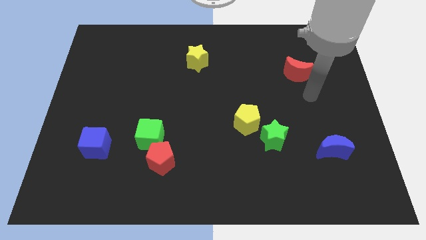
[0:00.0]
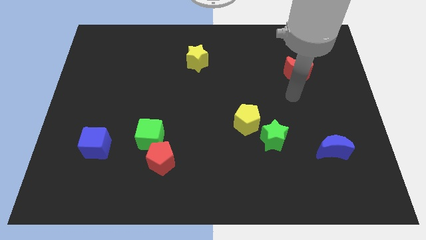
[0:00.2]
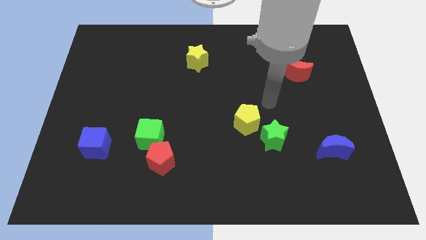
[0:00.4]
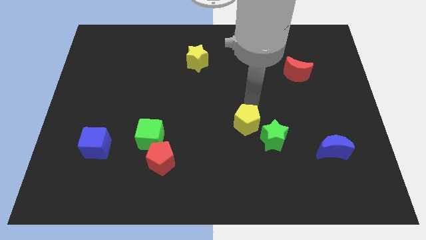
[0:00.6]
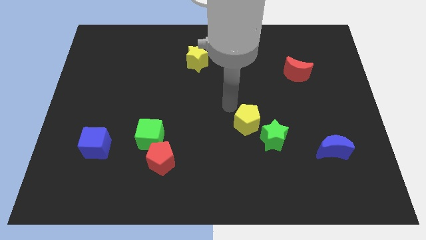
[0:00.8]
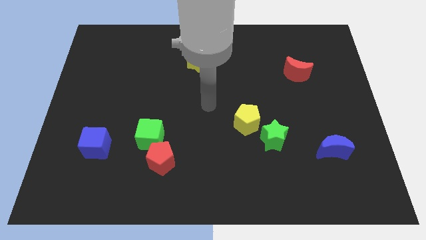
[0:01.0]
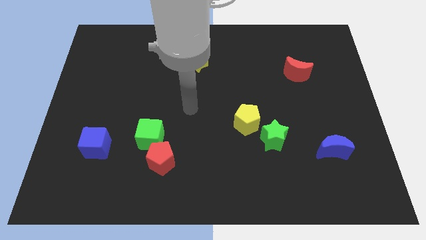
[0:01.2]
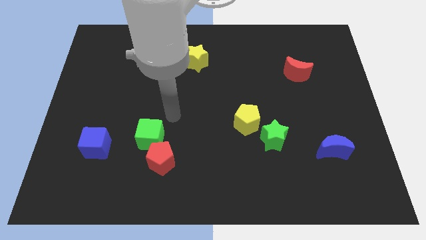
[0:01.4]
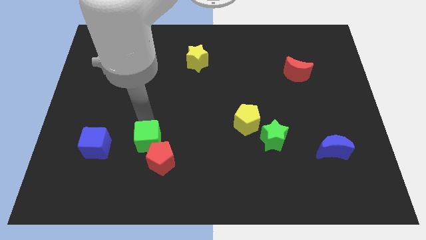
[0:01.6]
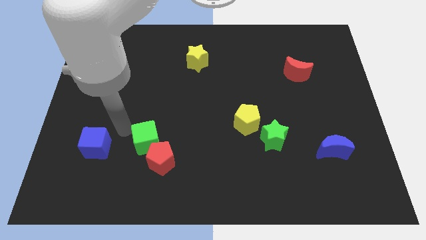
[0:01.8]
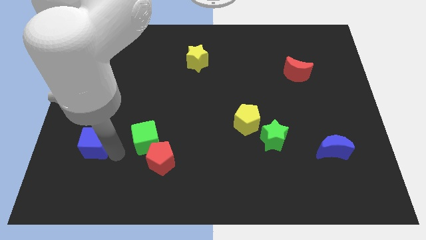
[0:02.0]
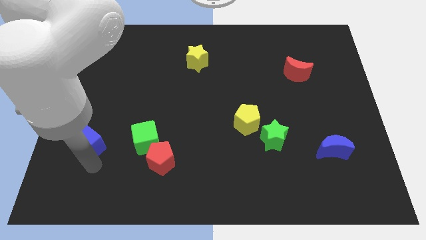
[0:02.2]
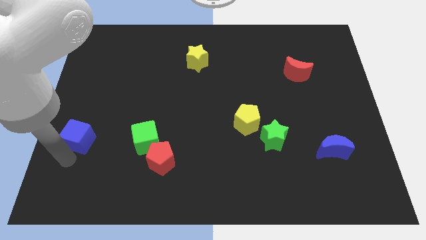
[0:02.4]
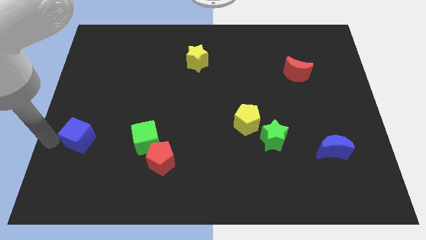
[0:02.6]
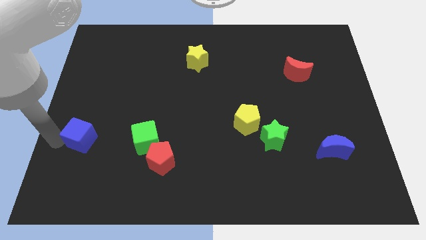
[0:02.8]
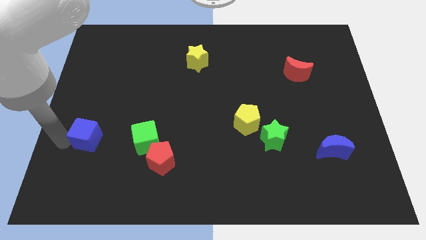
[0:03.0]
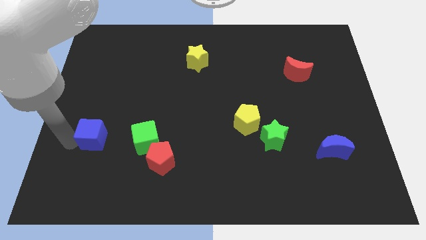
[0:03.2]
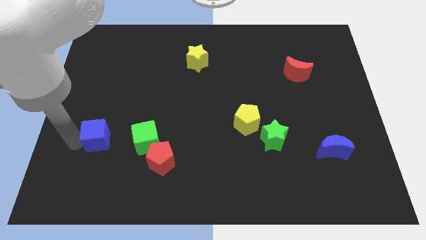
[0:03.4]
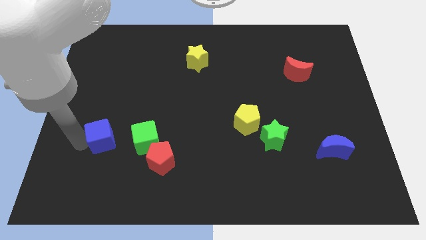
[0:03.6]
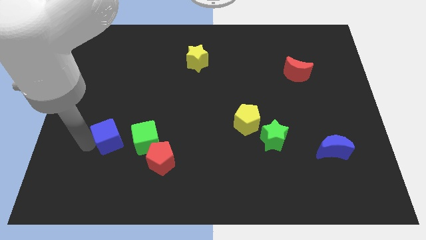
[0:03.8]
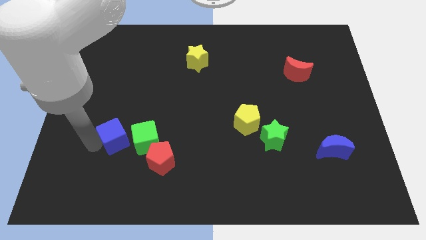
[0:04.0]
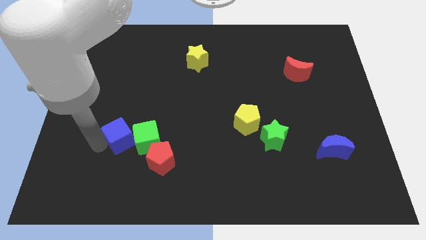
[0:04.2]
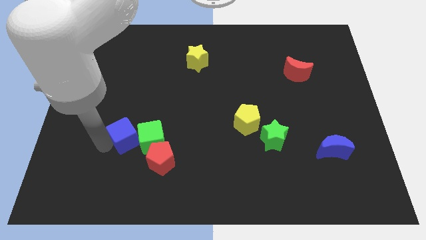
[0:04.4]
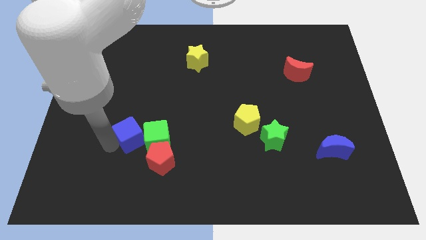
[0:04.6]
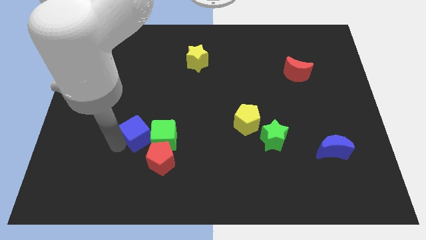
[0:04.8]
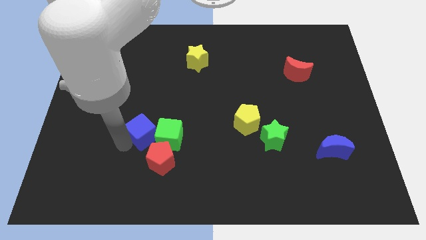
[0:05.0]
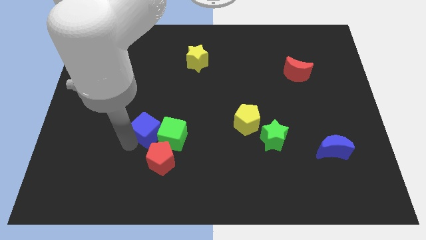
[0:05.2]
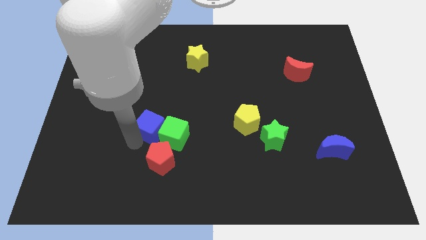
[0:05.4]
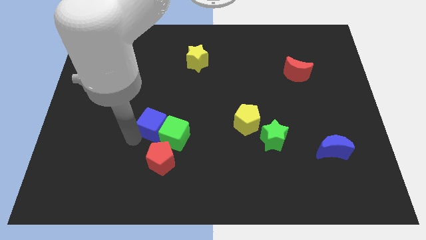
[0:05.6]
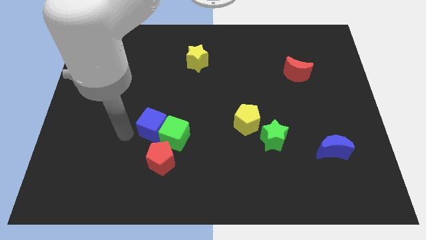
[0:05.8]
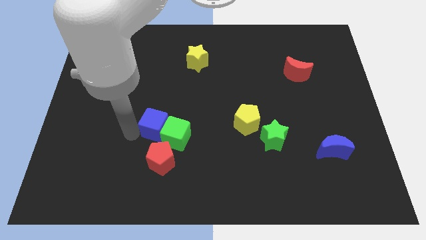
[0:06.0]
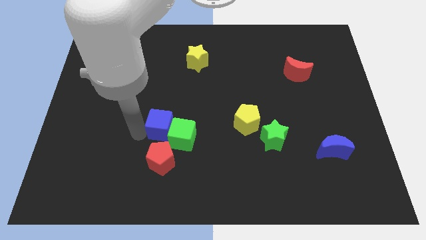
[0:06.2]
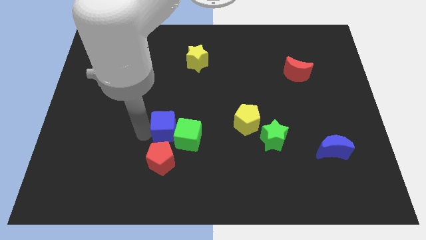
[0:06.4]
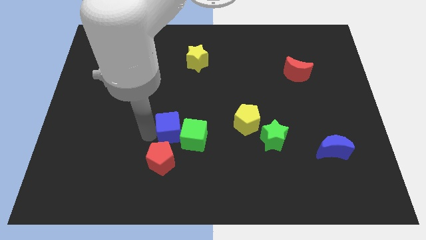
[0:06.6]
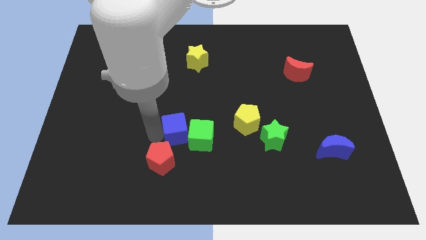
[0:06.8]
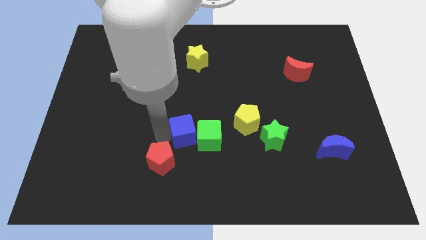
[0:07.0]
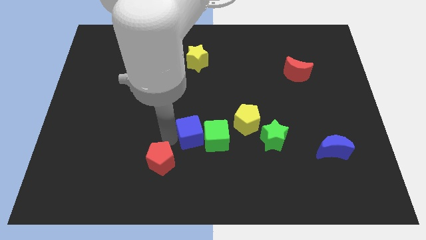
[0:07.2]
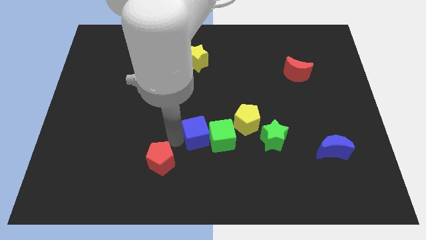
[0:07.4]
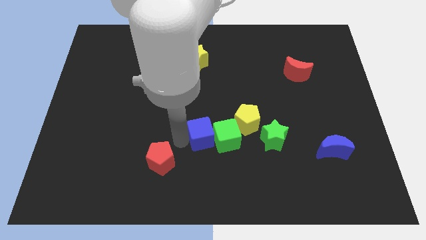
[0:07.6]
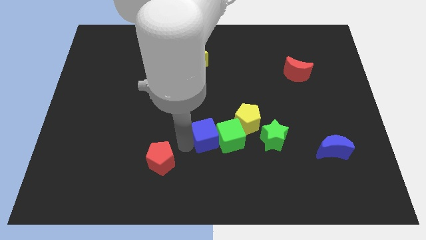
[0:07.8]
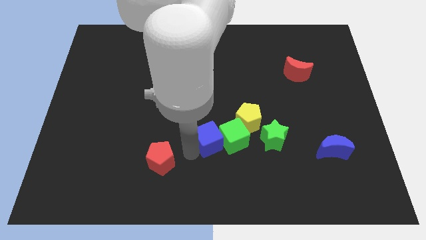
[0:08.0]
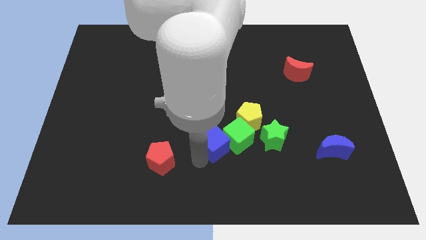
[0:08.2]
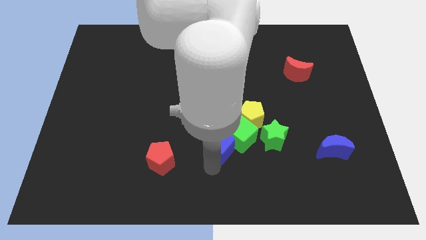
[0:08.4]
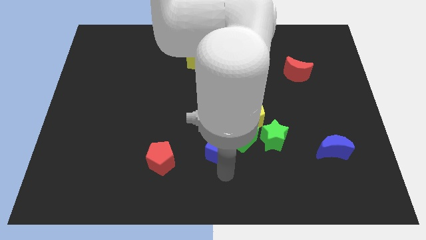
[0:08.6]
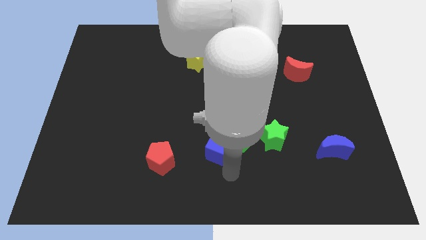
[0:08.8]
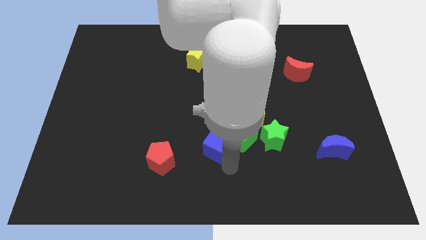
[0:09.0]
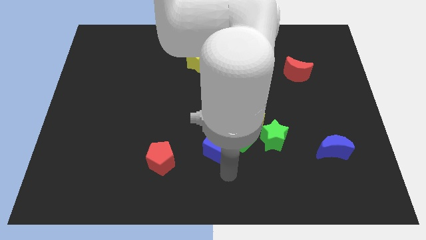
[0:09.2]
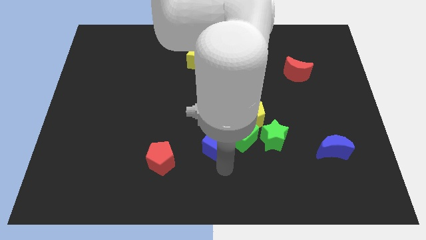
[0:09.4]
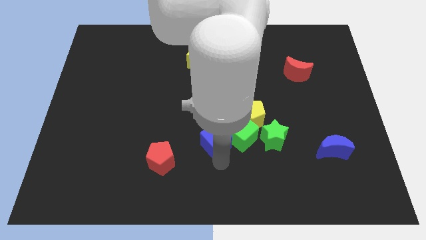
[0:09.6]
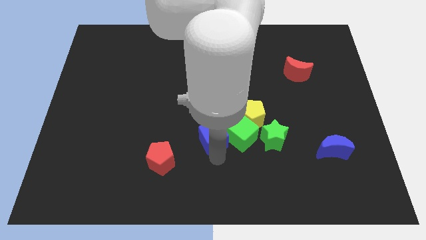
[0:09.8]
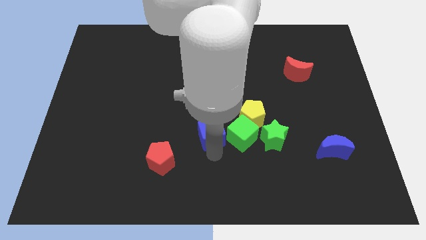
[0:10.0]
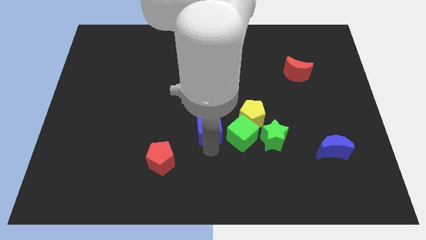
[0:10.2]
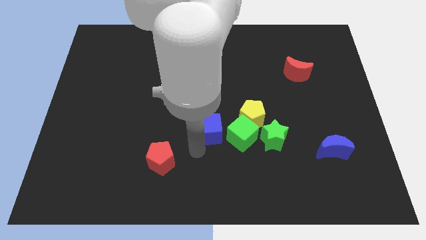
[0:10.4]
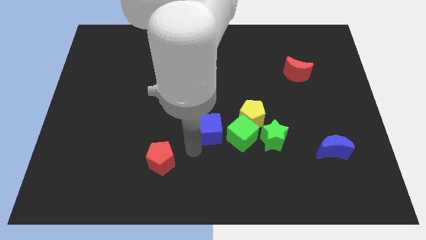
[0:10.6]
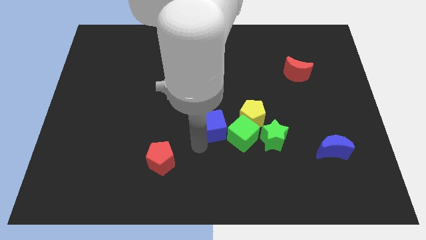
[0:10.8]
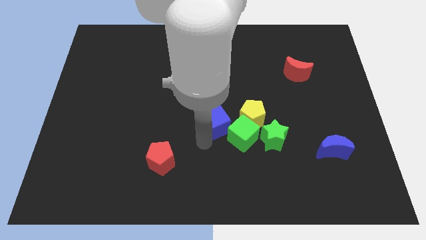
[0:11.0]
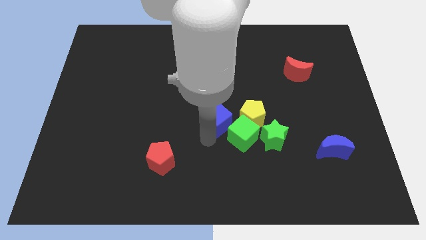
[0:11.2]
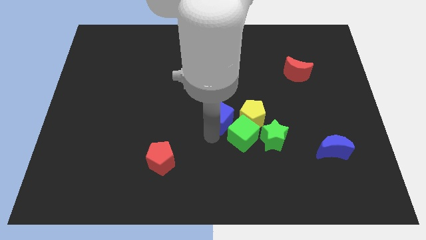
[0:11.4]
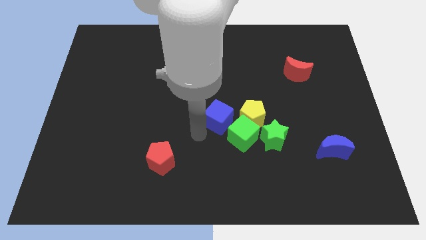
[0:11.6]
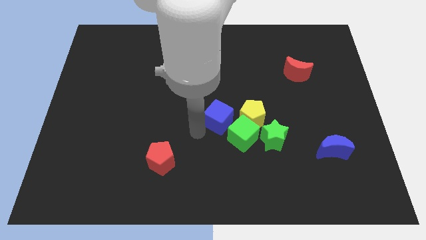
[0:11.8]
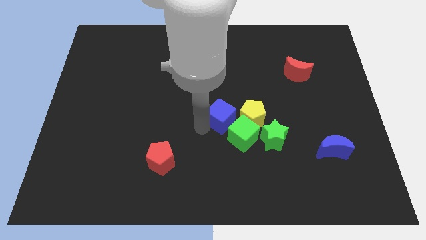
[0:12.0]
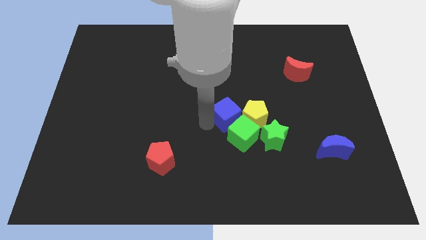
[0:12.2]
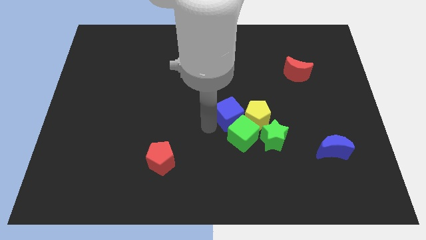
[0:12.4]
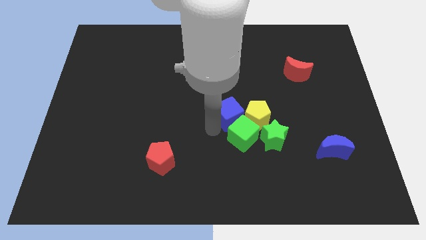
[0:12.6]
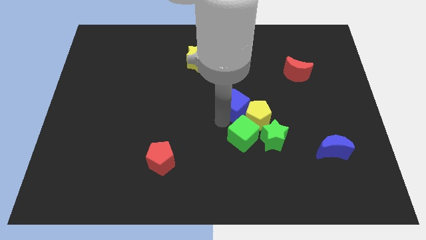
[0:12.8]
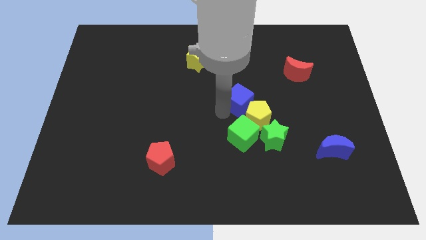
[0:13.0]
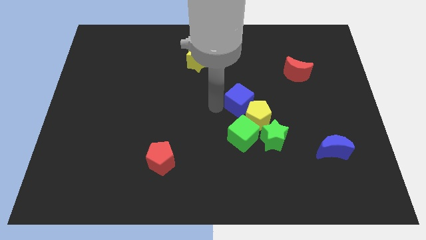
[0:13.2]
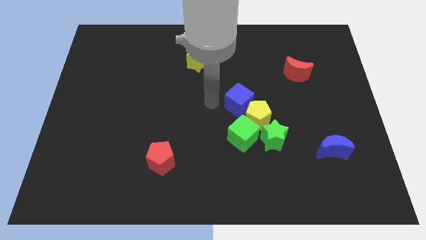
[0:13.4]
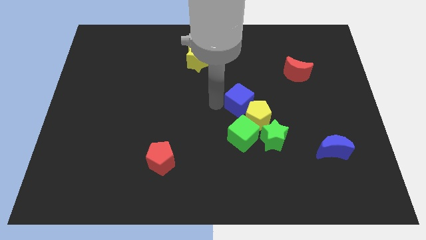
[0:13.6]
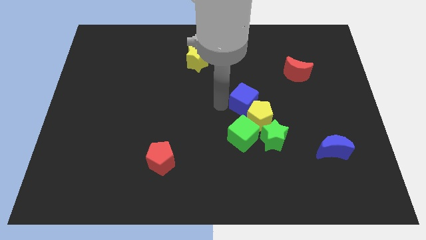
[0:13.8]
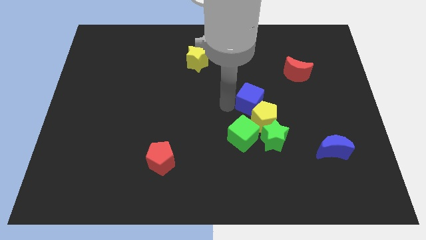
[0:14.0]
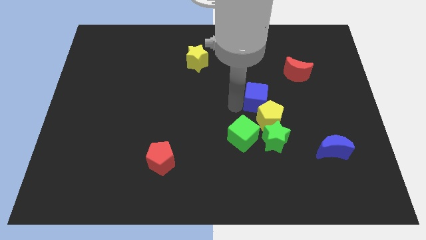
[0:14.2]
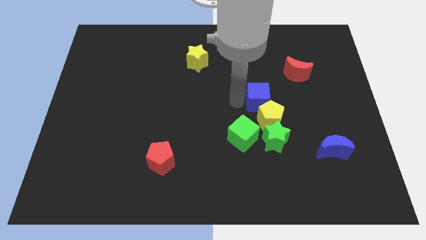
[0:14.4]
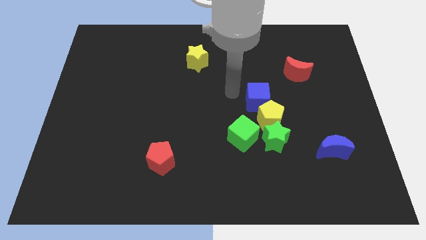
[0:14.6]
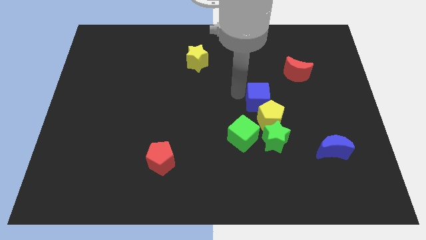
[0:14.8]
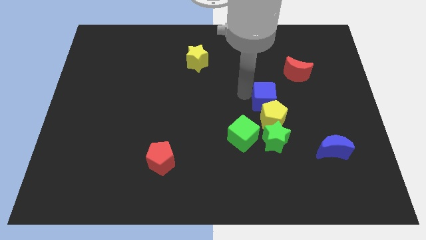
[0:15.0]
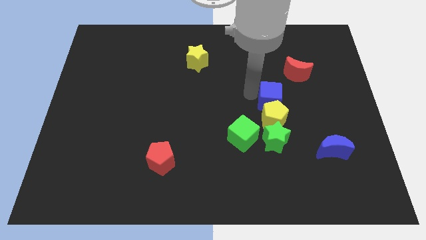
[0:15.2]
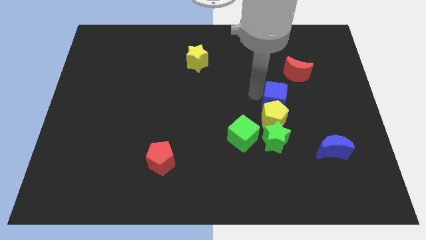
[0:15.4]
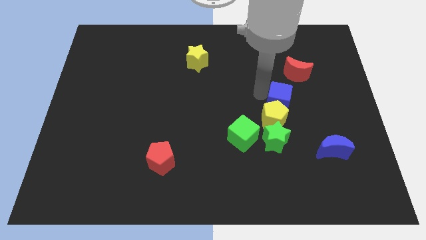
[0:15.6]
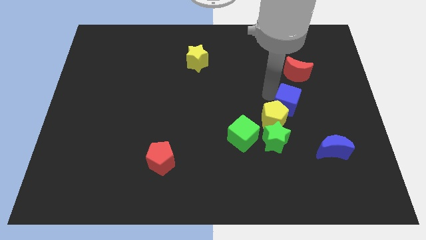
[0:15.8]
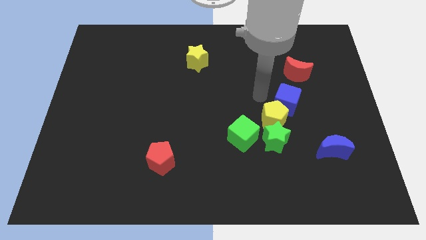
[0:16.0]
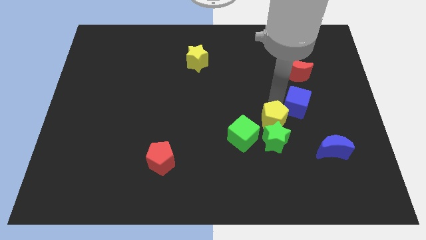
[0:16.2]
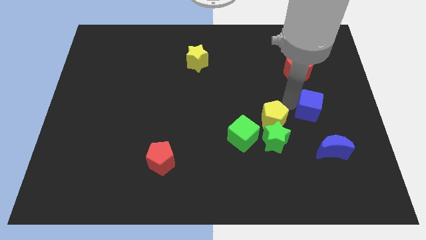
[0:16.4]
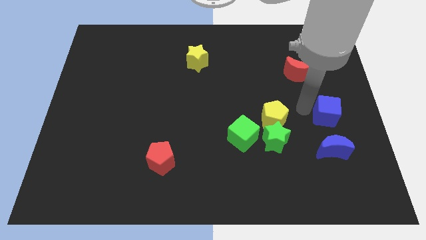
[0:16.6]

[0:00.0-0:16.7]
move the blue cube to the right side
